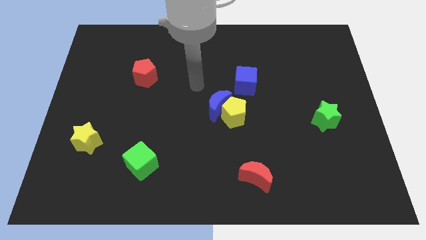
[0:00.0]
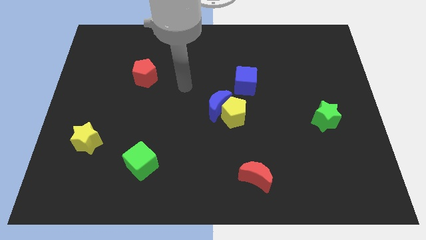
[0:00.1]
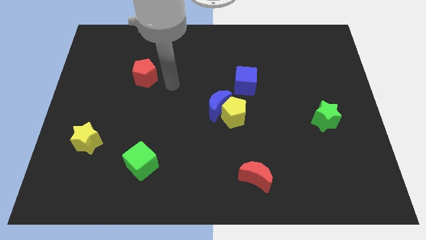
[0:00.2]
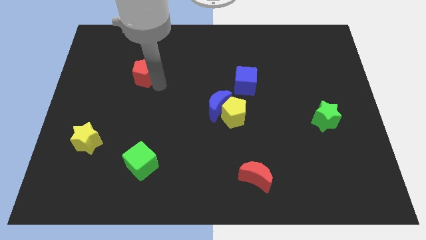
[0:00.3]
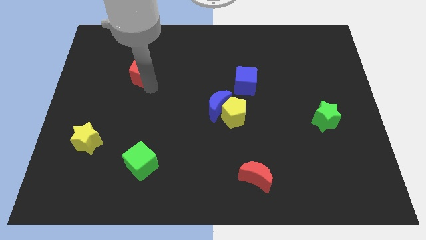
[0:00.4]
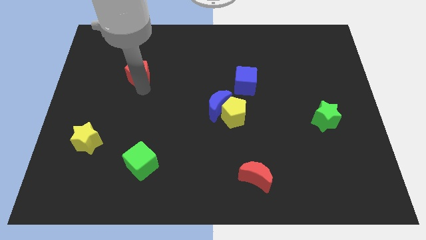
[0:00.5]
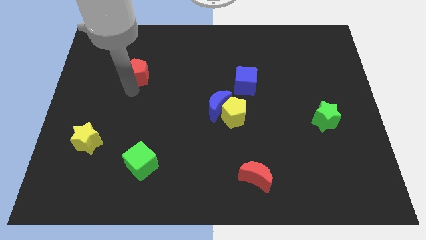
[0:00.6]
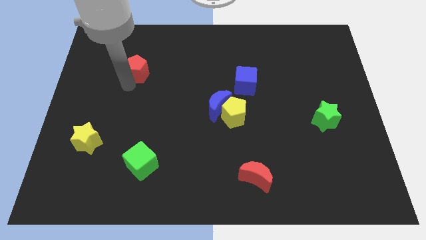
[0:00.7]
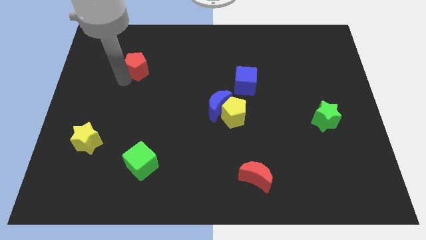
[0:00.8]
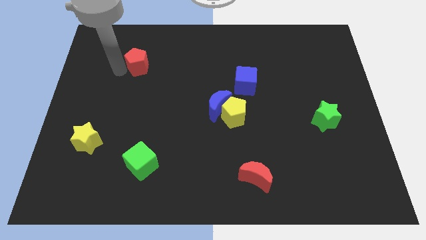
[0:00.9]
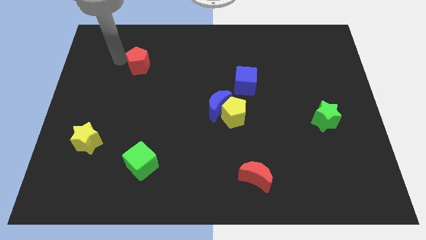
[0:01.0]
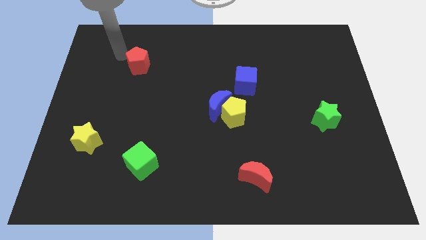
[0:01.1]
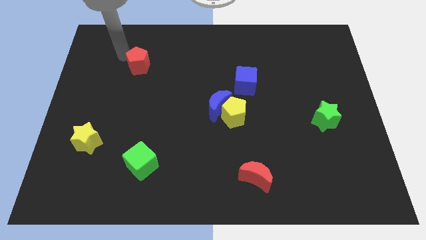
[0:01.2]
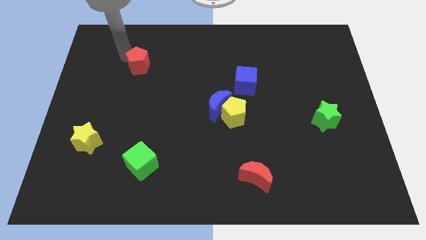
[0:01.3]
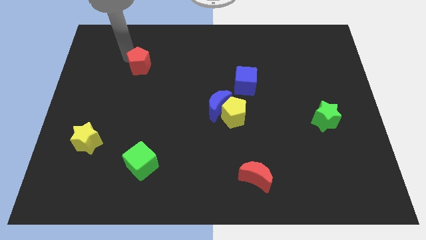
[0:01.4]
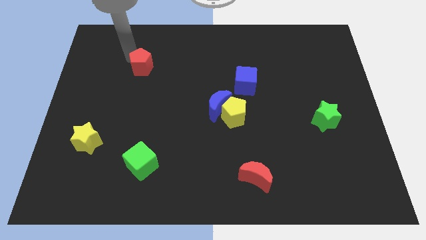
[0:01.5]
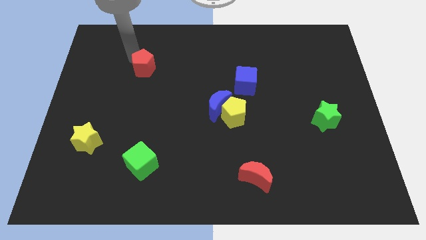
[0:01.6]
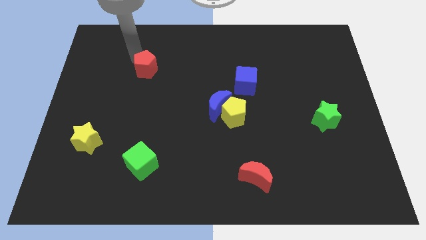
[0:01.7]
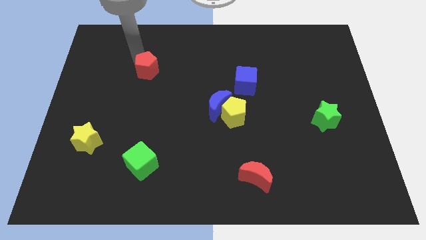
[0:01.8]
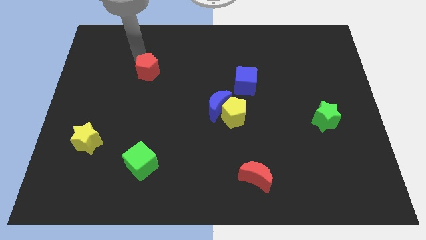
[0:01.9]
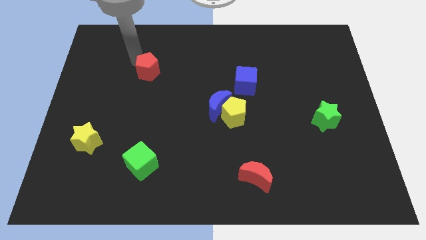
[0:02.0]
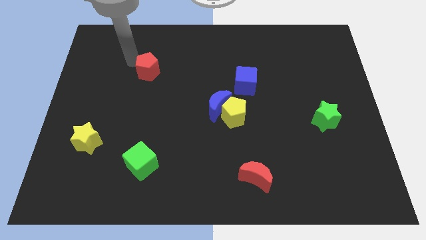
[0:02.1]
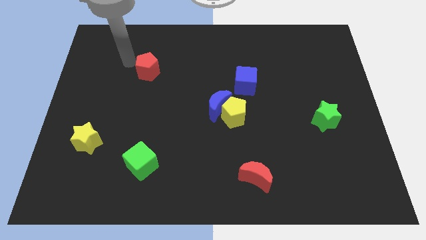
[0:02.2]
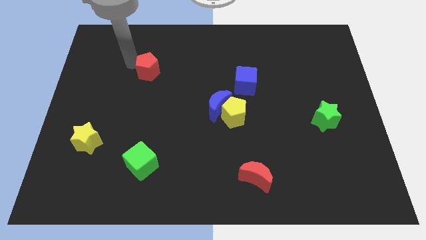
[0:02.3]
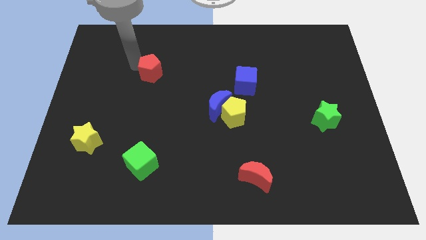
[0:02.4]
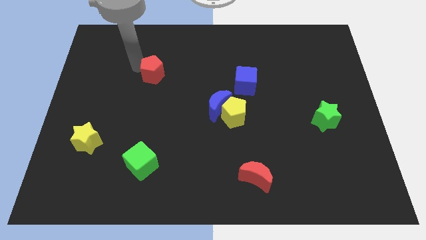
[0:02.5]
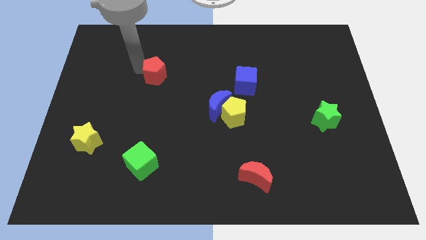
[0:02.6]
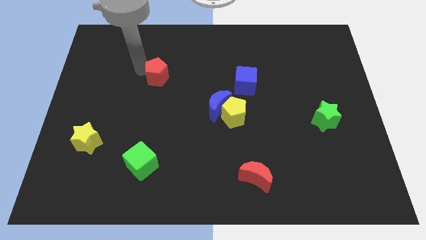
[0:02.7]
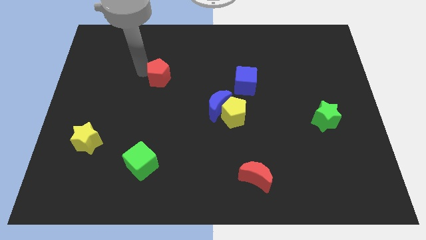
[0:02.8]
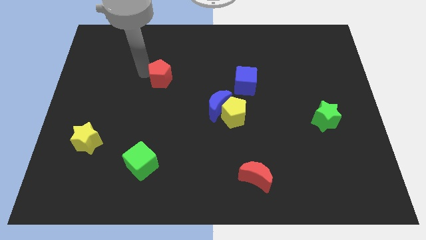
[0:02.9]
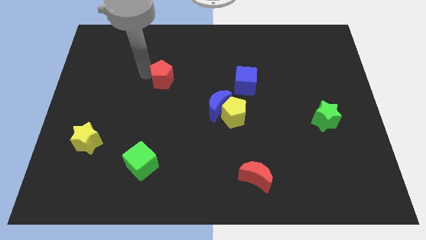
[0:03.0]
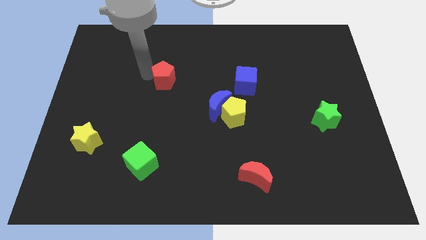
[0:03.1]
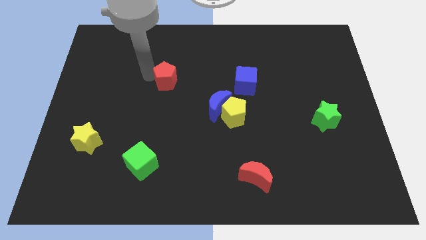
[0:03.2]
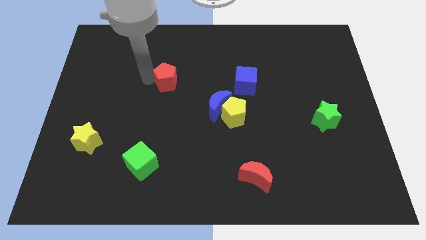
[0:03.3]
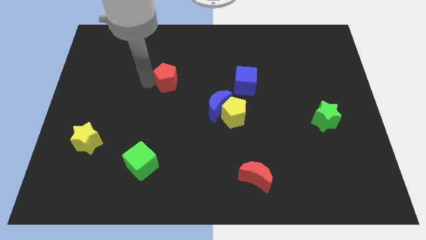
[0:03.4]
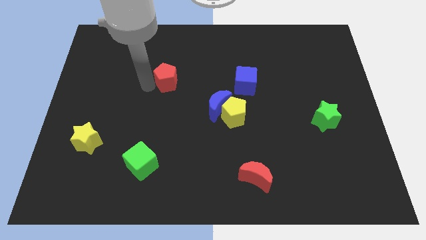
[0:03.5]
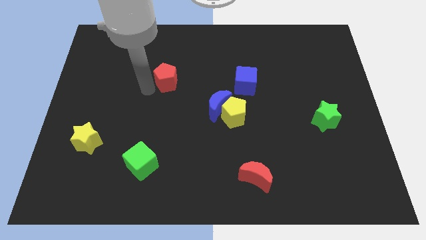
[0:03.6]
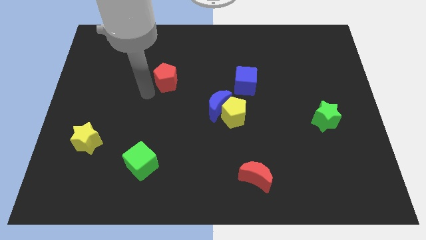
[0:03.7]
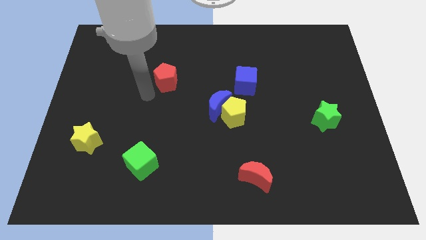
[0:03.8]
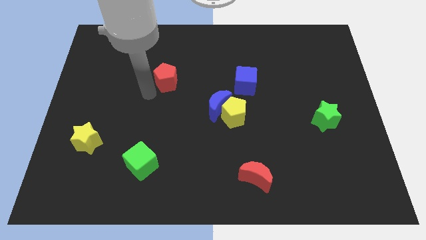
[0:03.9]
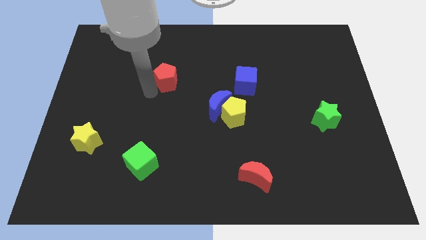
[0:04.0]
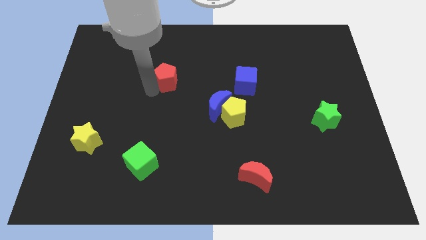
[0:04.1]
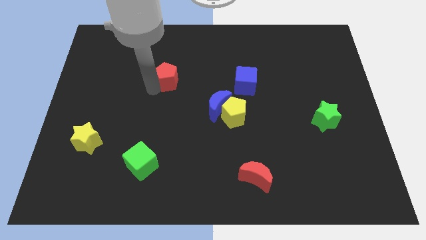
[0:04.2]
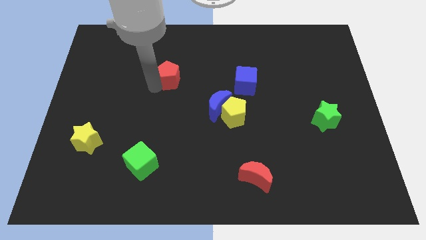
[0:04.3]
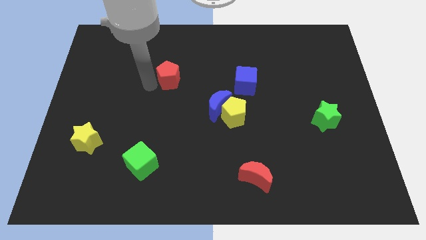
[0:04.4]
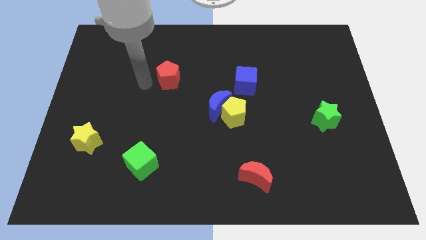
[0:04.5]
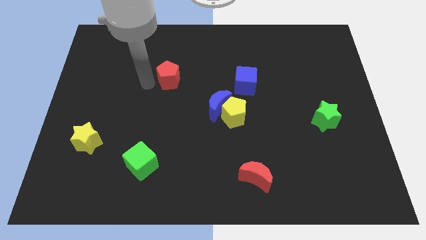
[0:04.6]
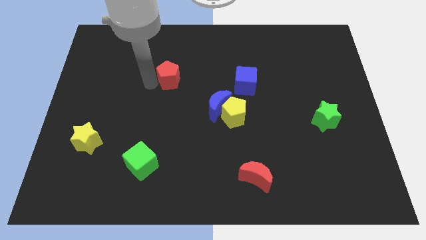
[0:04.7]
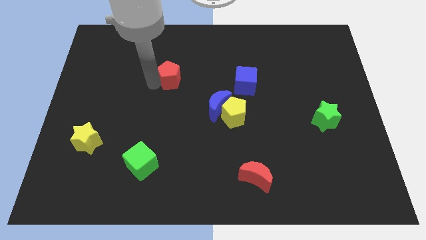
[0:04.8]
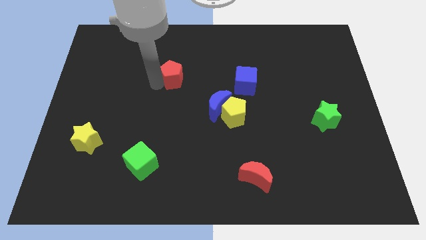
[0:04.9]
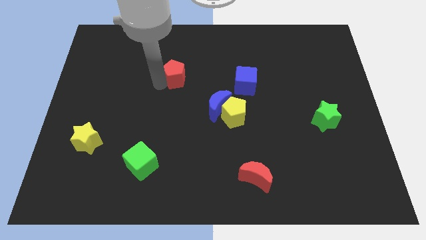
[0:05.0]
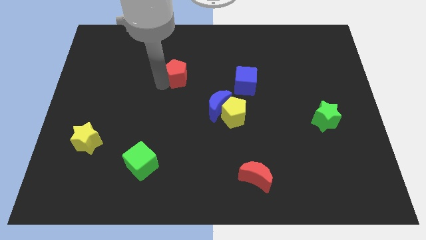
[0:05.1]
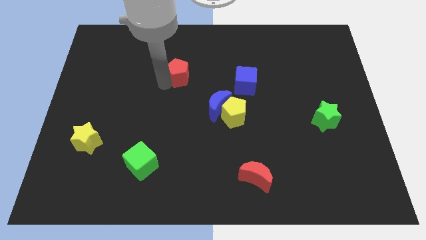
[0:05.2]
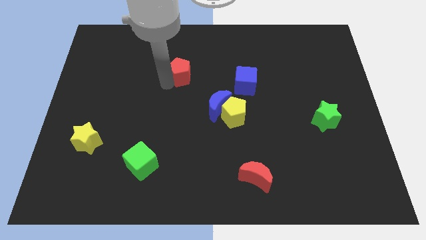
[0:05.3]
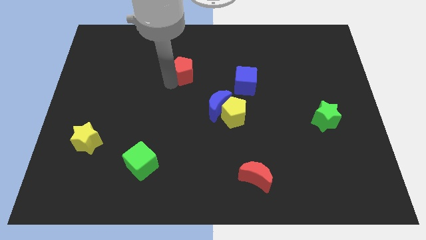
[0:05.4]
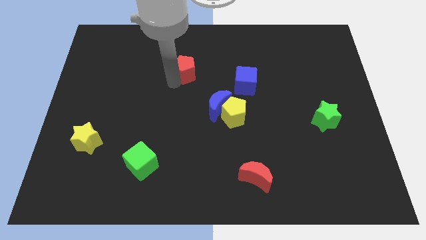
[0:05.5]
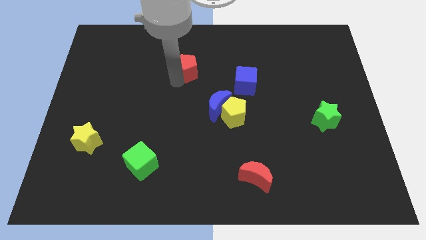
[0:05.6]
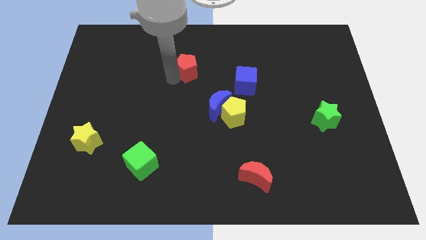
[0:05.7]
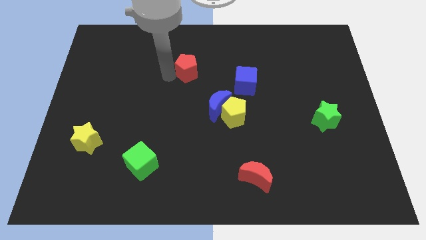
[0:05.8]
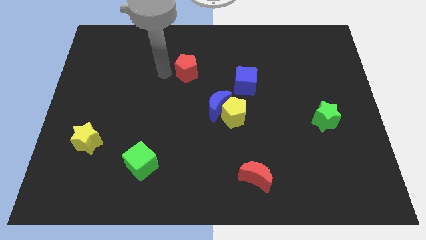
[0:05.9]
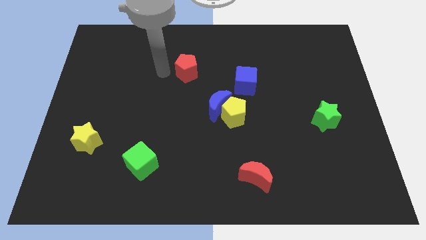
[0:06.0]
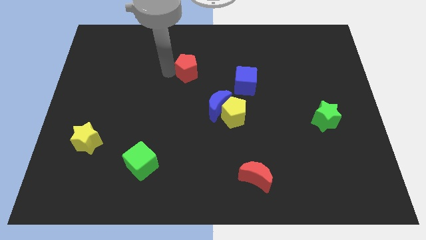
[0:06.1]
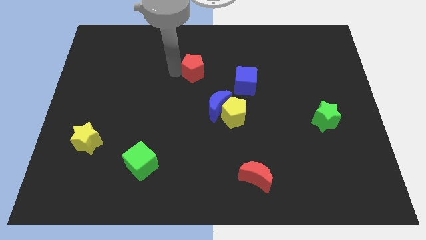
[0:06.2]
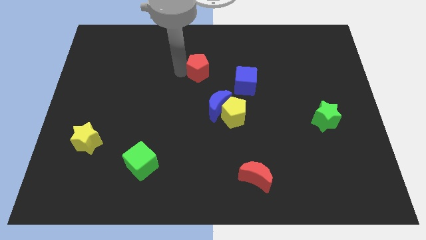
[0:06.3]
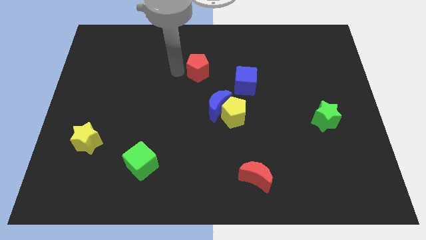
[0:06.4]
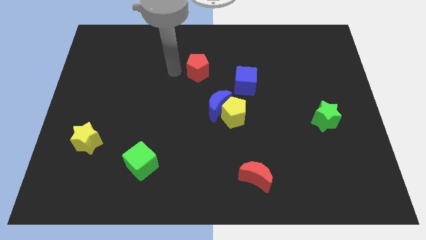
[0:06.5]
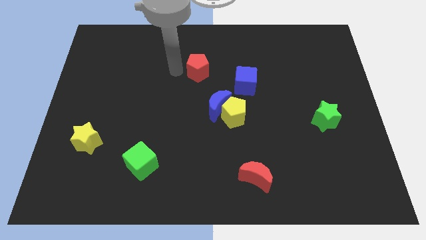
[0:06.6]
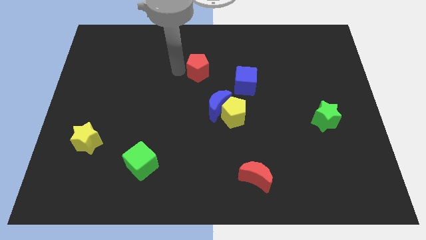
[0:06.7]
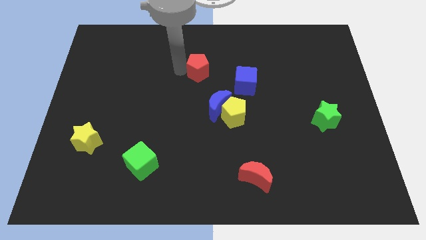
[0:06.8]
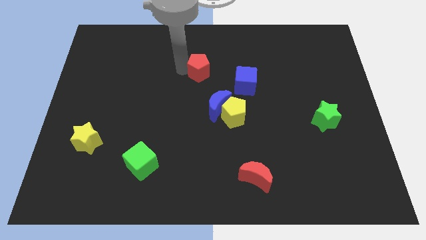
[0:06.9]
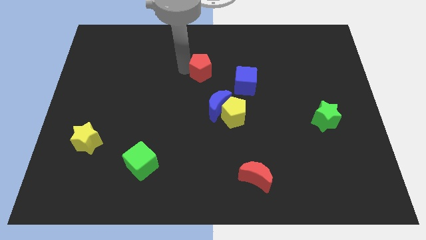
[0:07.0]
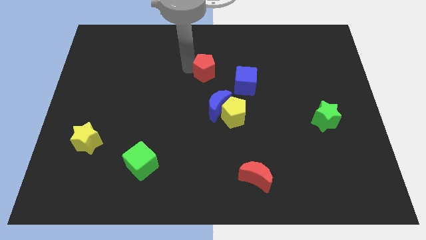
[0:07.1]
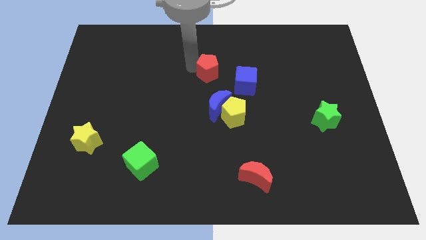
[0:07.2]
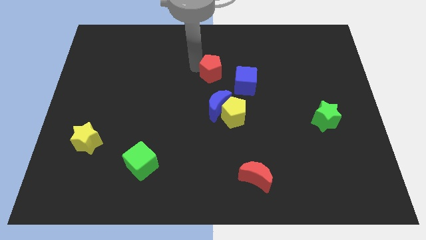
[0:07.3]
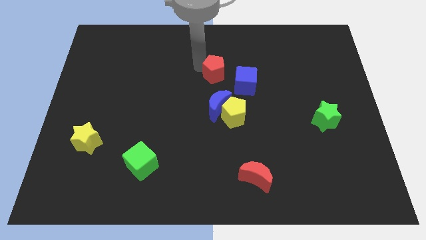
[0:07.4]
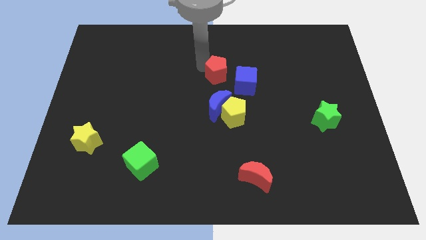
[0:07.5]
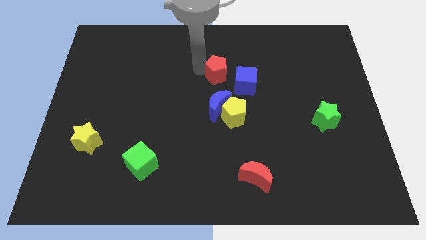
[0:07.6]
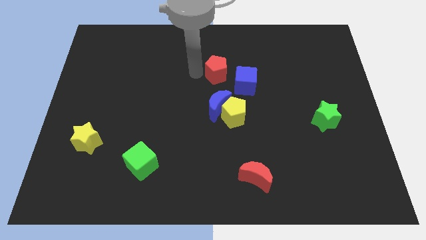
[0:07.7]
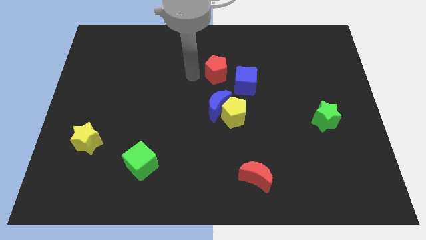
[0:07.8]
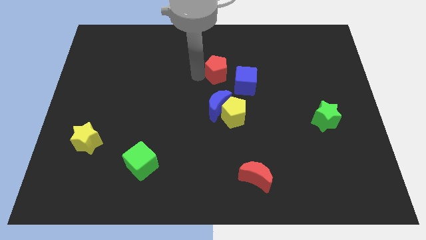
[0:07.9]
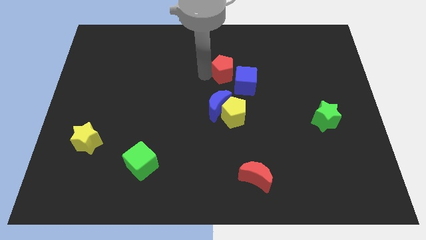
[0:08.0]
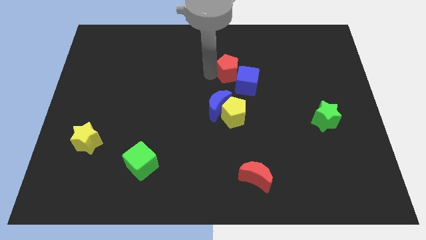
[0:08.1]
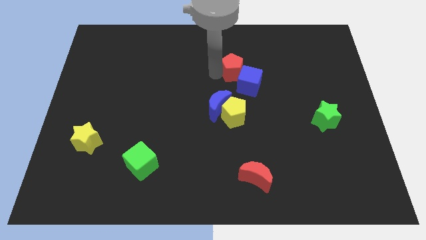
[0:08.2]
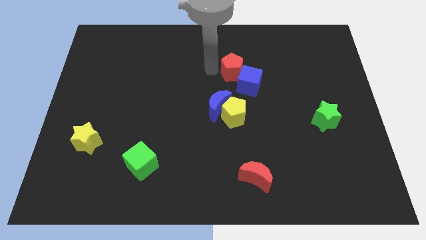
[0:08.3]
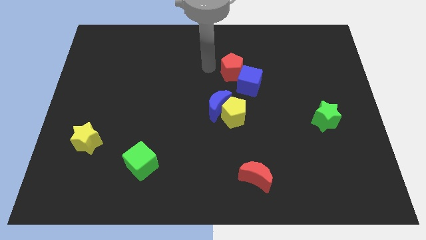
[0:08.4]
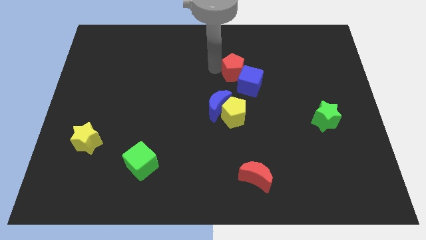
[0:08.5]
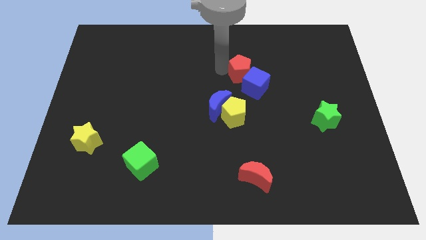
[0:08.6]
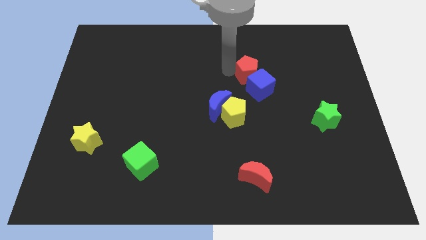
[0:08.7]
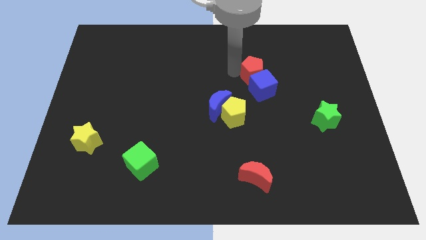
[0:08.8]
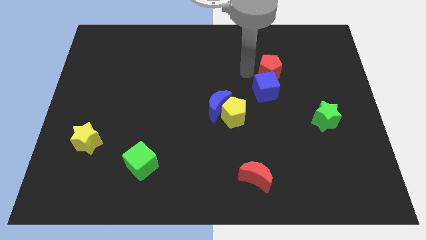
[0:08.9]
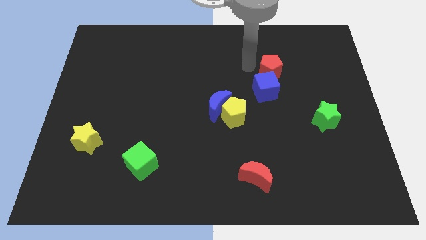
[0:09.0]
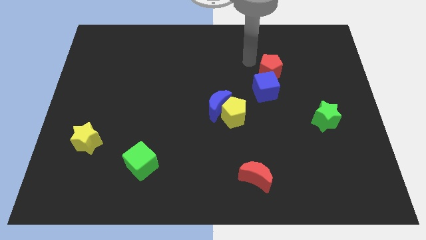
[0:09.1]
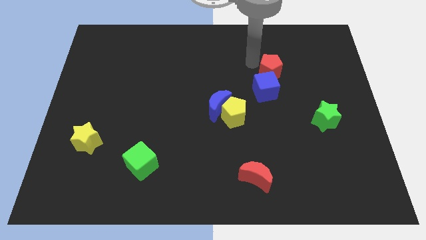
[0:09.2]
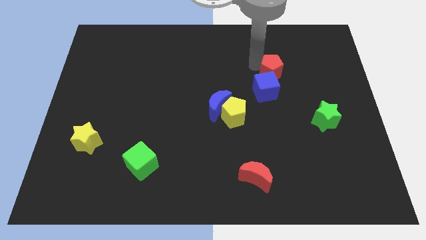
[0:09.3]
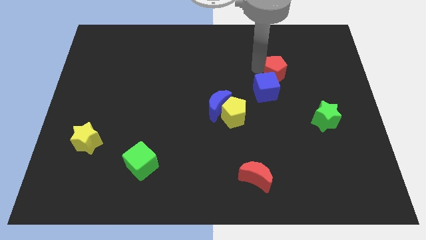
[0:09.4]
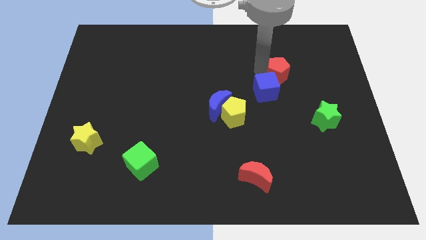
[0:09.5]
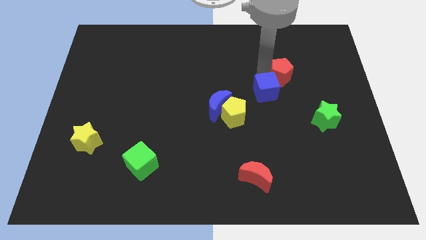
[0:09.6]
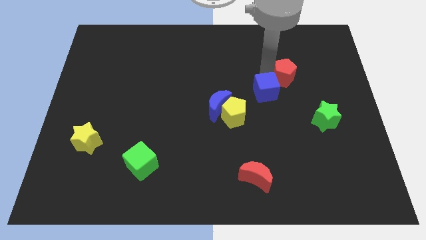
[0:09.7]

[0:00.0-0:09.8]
put the red pentagon right of the blue cube
